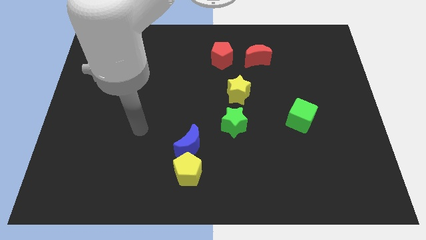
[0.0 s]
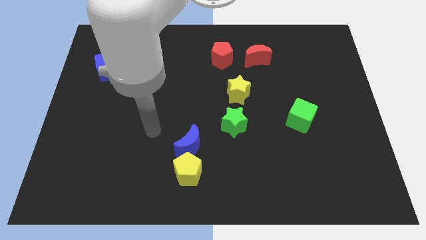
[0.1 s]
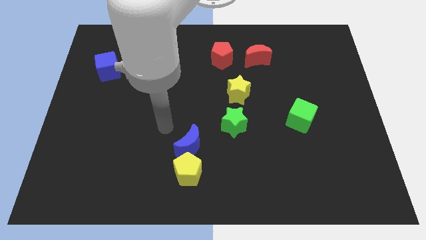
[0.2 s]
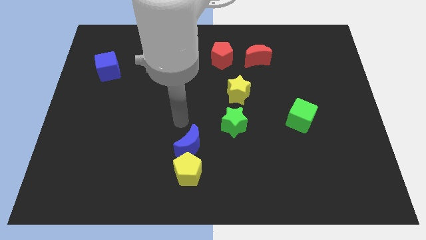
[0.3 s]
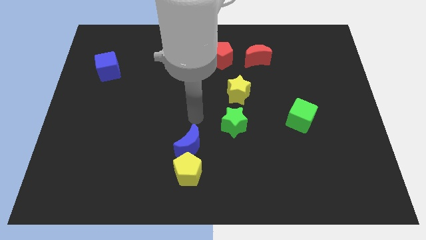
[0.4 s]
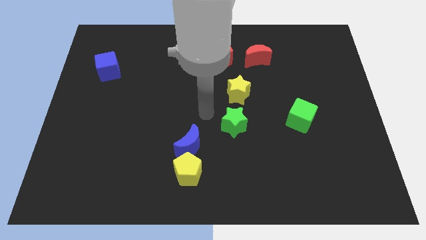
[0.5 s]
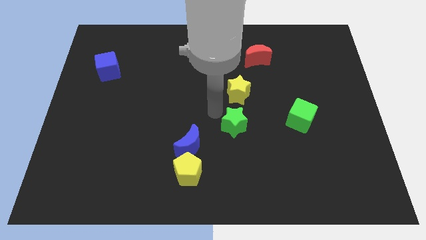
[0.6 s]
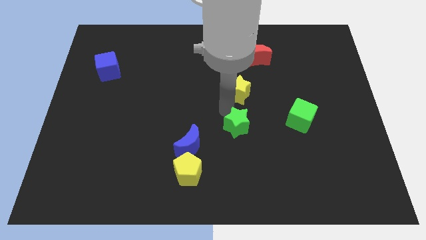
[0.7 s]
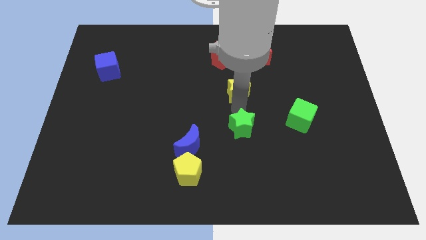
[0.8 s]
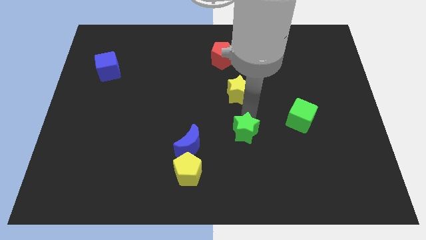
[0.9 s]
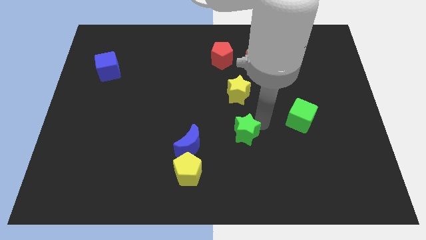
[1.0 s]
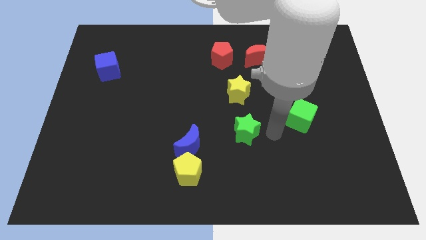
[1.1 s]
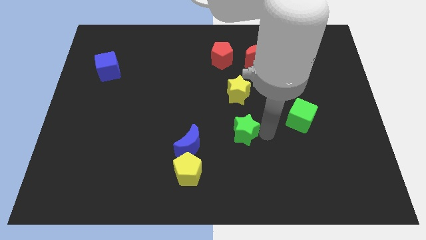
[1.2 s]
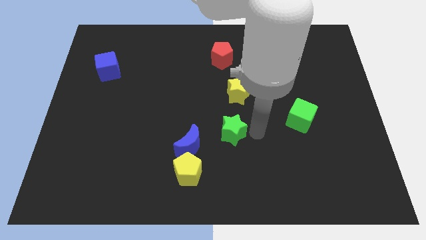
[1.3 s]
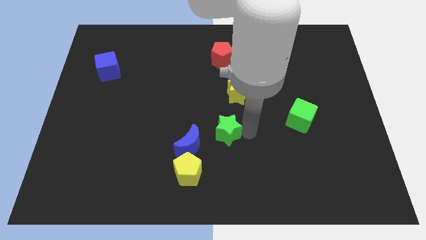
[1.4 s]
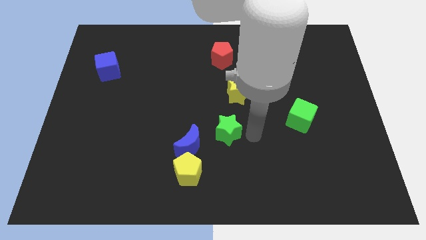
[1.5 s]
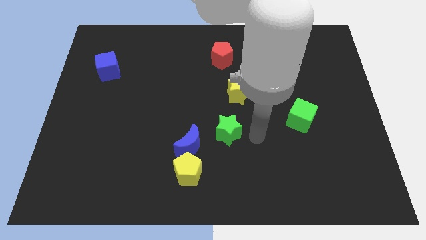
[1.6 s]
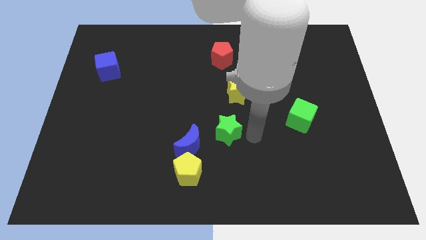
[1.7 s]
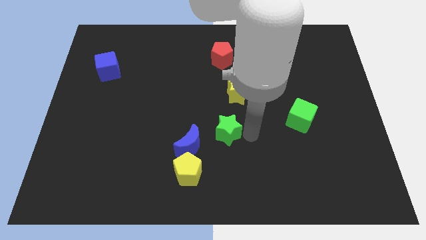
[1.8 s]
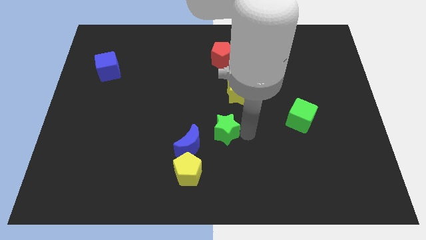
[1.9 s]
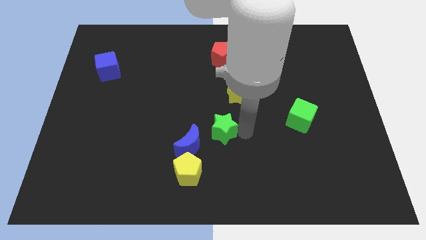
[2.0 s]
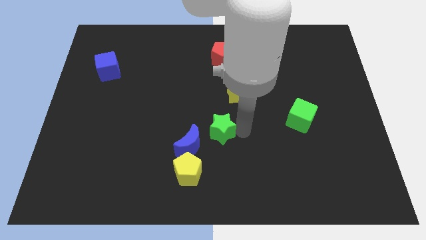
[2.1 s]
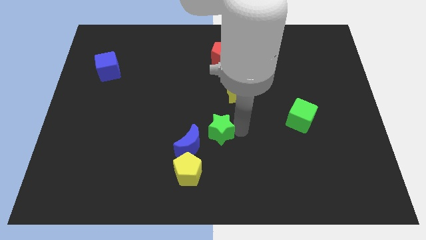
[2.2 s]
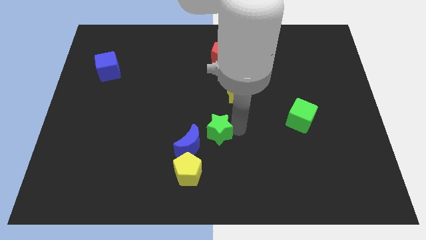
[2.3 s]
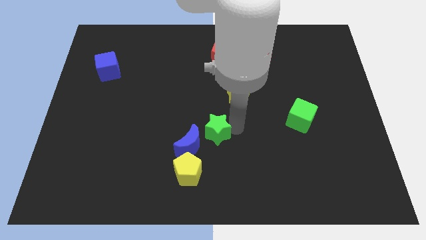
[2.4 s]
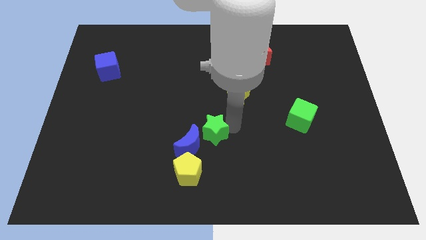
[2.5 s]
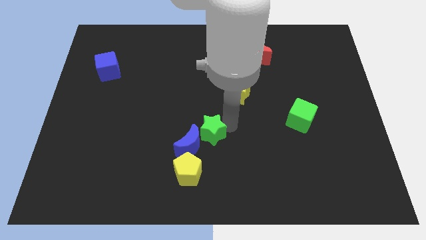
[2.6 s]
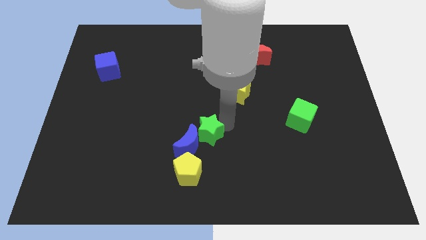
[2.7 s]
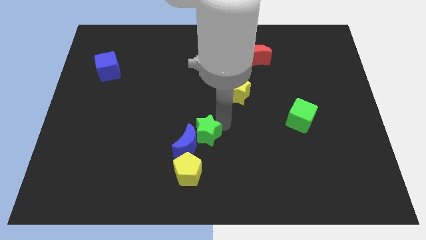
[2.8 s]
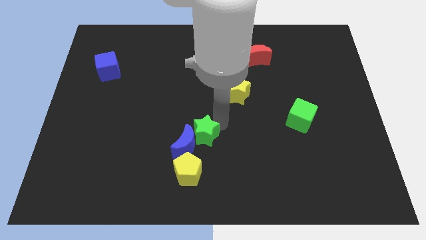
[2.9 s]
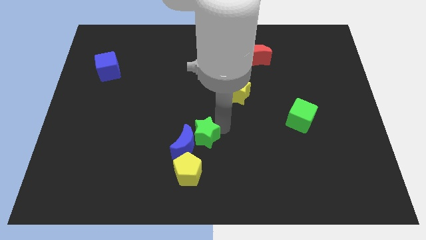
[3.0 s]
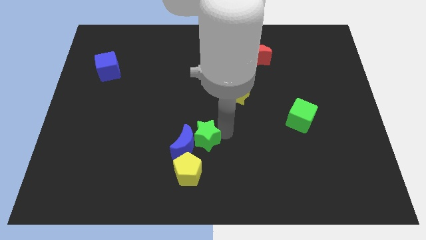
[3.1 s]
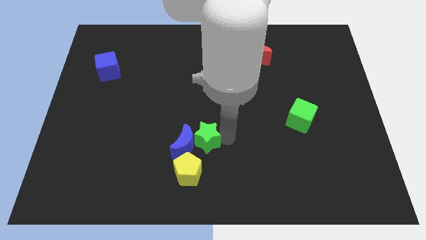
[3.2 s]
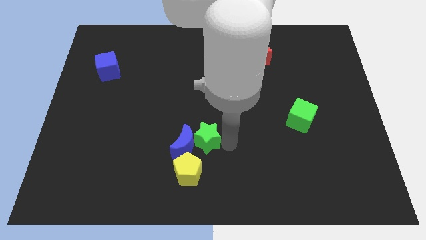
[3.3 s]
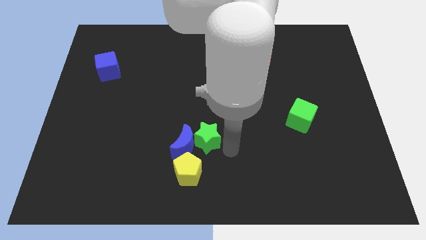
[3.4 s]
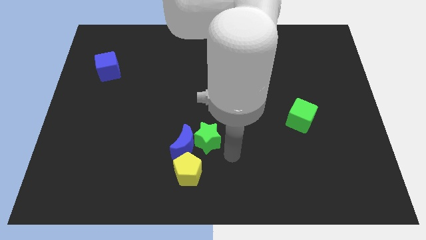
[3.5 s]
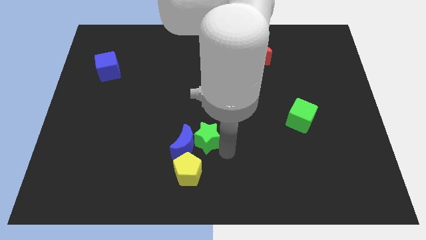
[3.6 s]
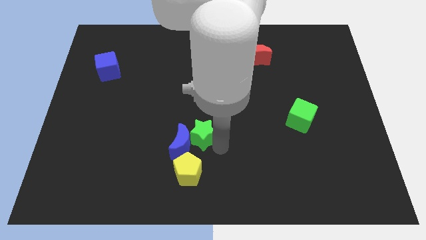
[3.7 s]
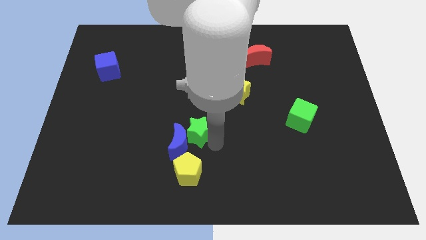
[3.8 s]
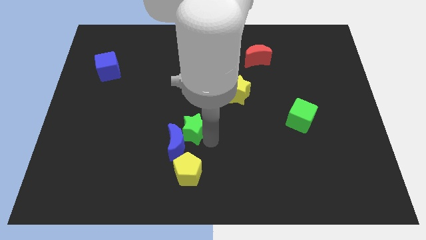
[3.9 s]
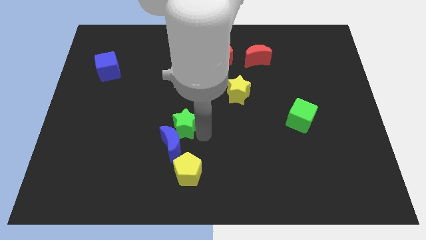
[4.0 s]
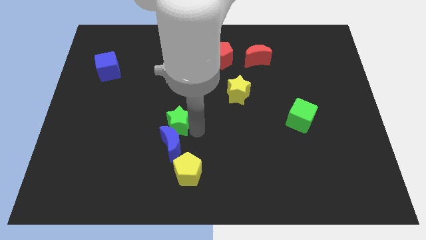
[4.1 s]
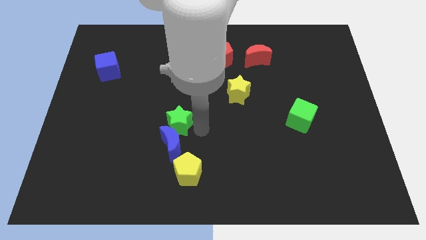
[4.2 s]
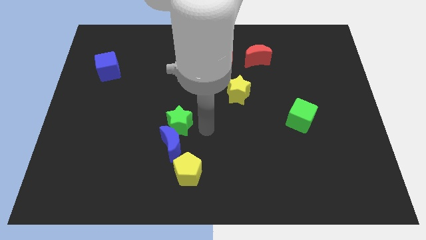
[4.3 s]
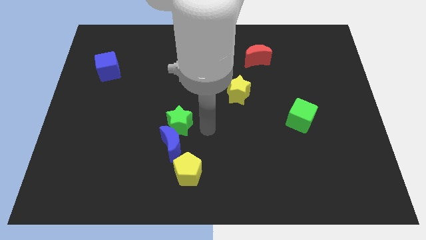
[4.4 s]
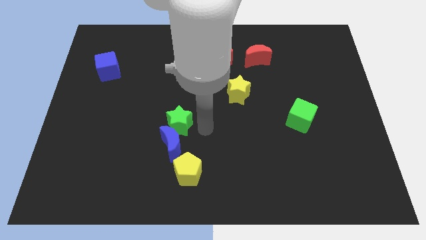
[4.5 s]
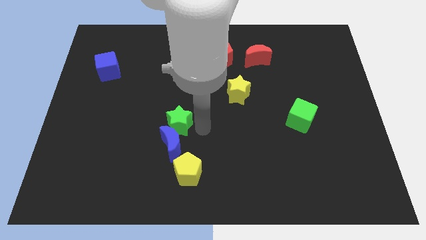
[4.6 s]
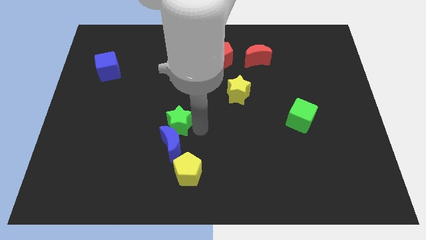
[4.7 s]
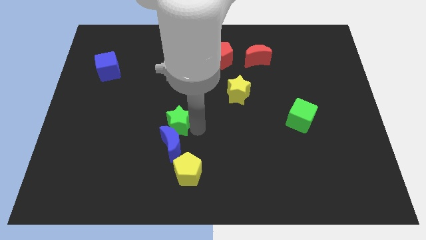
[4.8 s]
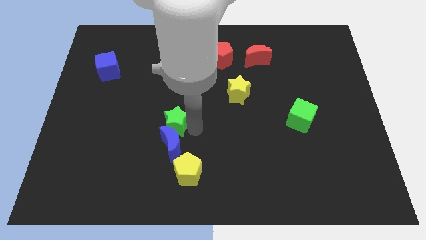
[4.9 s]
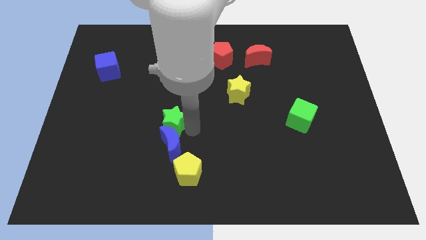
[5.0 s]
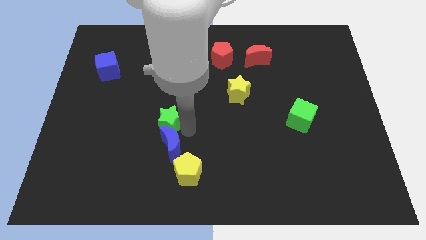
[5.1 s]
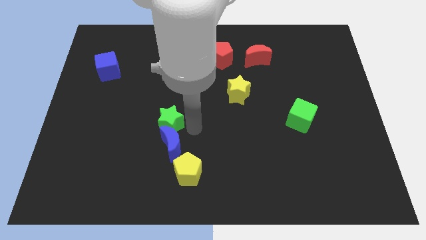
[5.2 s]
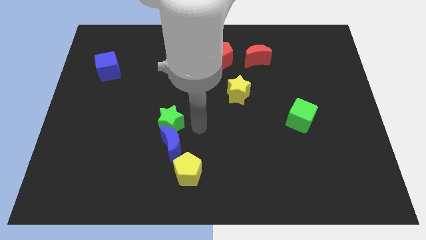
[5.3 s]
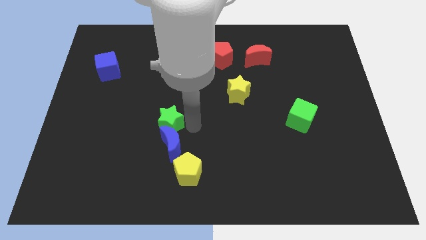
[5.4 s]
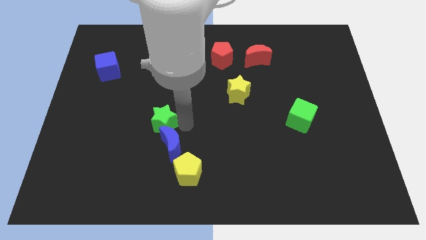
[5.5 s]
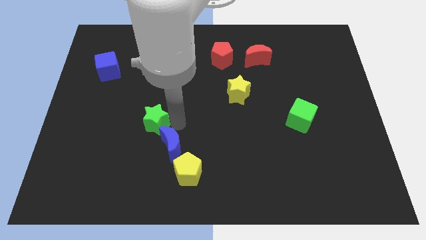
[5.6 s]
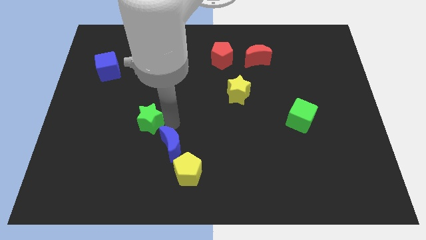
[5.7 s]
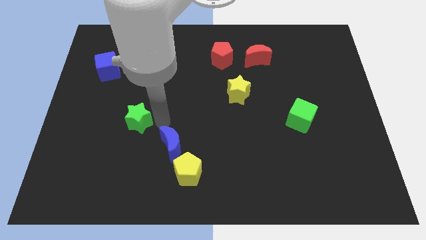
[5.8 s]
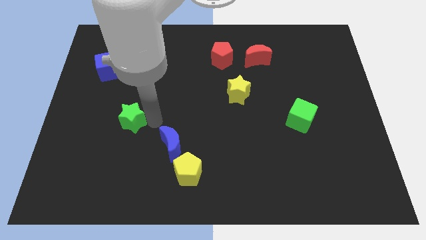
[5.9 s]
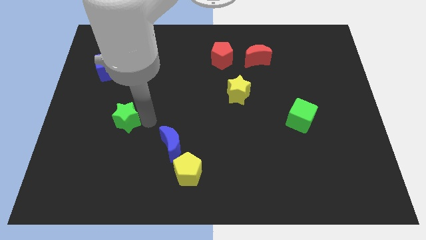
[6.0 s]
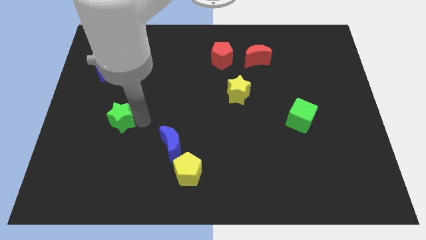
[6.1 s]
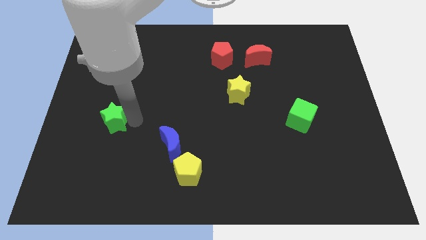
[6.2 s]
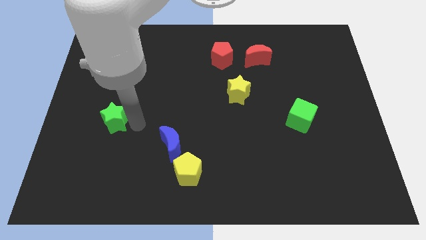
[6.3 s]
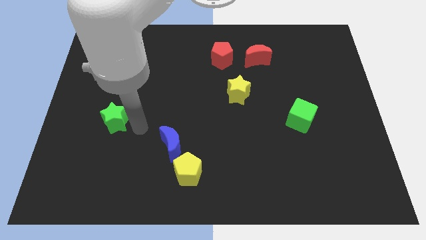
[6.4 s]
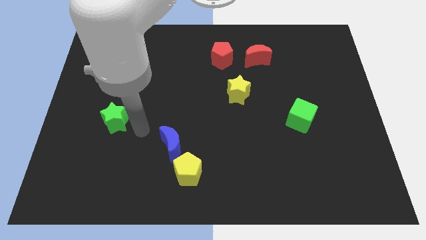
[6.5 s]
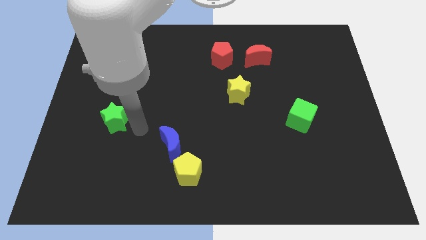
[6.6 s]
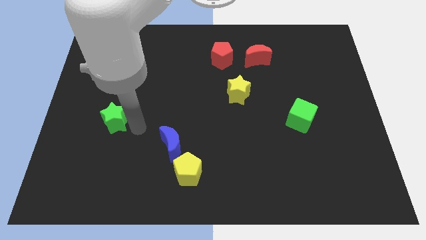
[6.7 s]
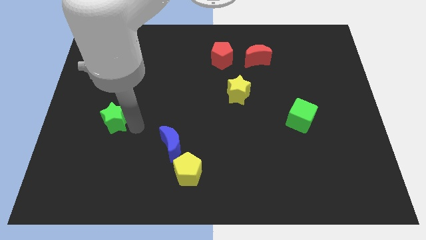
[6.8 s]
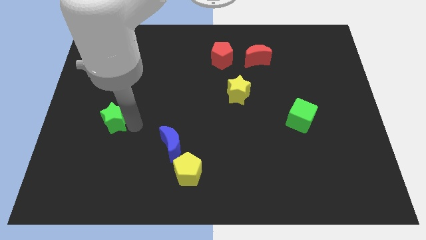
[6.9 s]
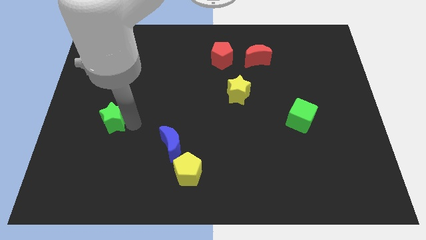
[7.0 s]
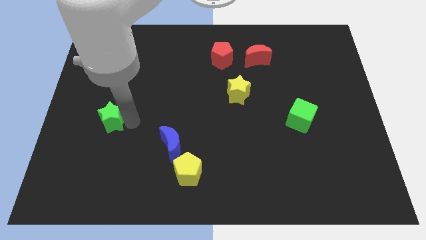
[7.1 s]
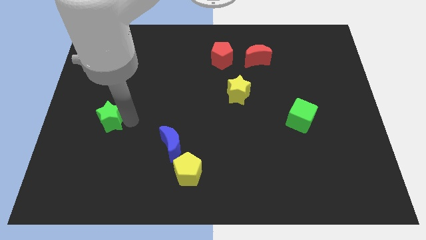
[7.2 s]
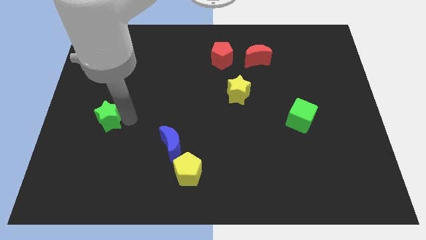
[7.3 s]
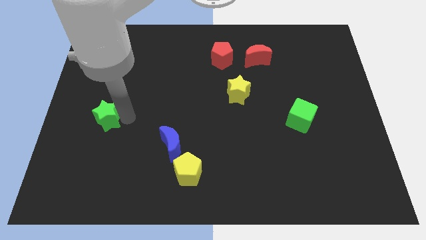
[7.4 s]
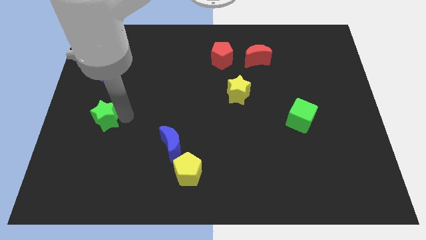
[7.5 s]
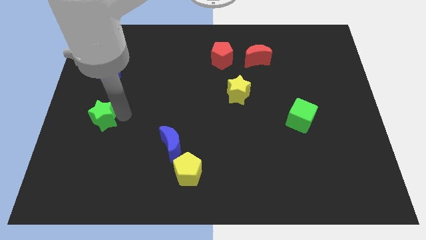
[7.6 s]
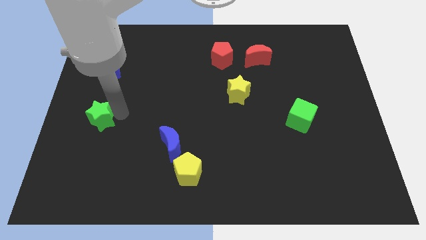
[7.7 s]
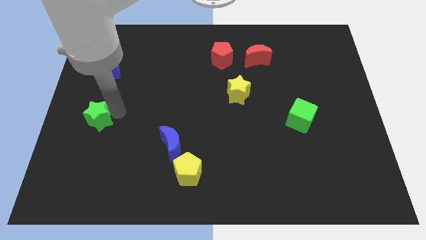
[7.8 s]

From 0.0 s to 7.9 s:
put the green star to the left side
